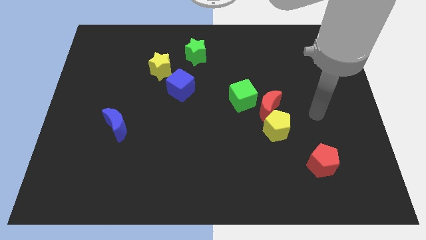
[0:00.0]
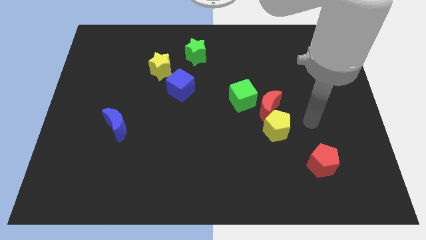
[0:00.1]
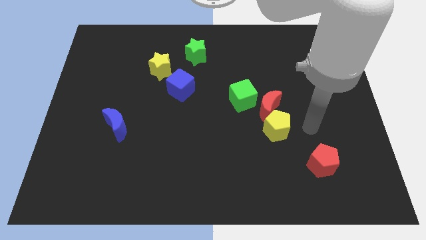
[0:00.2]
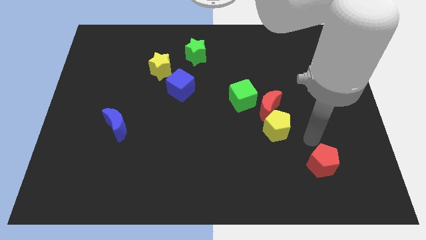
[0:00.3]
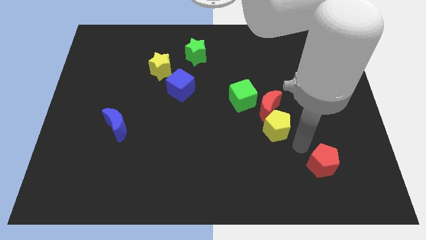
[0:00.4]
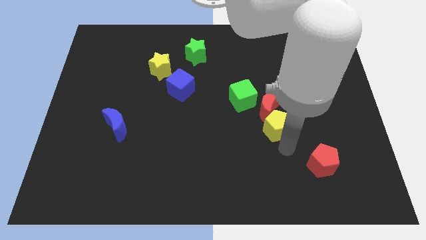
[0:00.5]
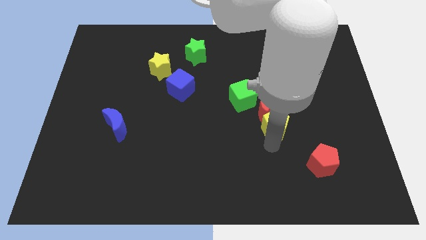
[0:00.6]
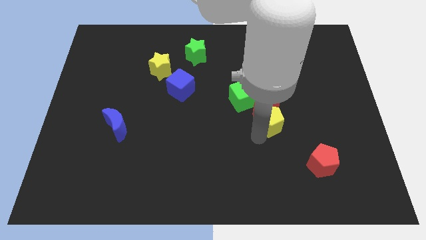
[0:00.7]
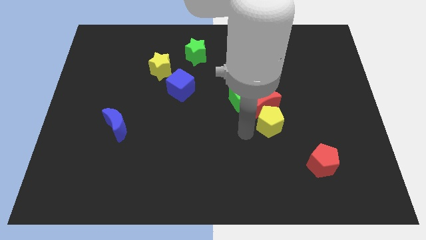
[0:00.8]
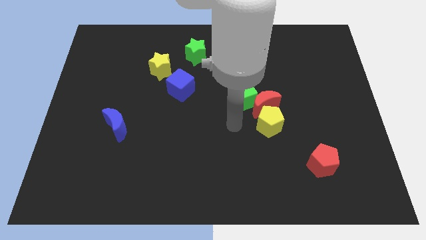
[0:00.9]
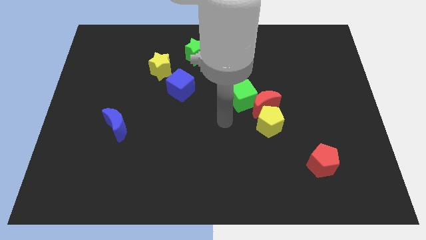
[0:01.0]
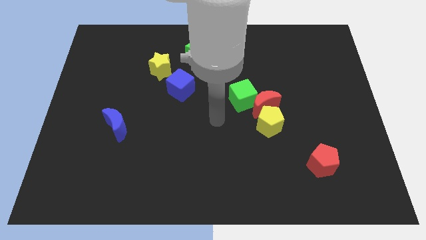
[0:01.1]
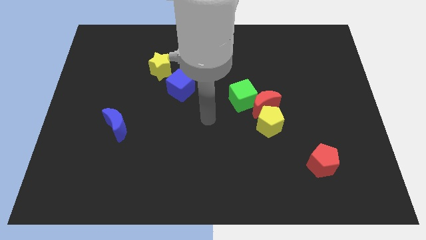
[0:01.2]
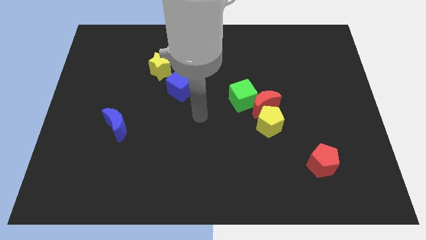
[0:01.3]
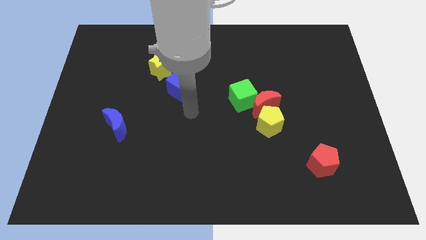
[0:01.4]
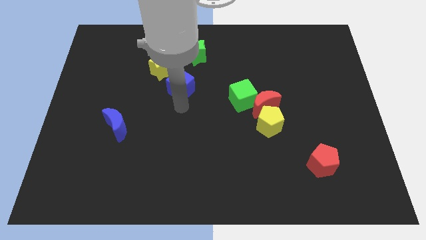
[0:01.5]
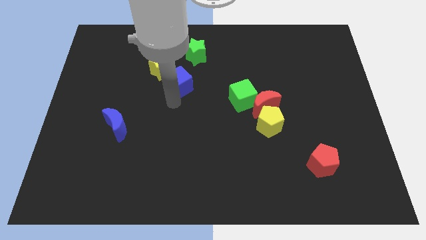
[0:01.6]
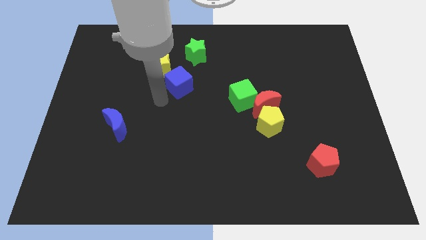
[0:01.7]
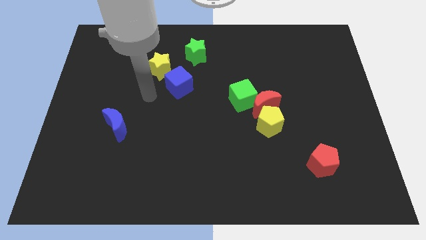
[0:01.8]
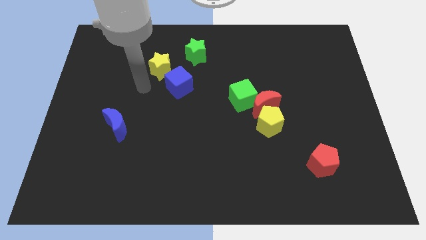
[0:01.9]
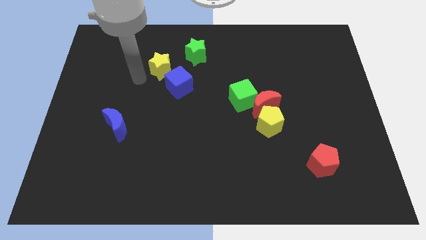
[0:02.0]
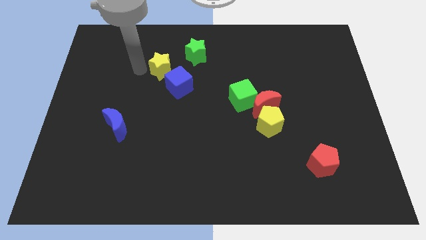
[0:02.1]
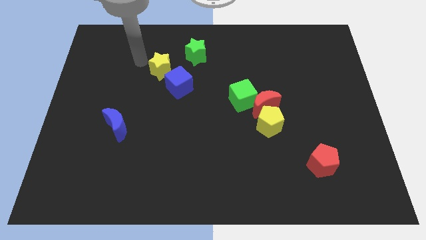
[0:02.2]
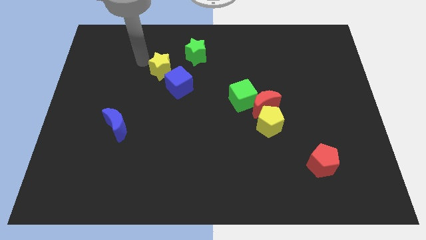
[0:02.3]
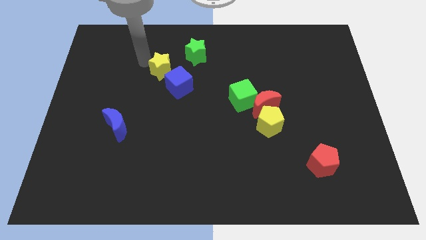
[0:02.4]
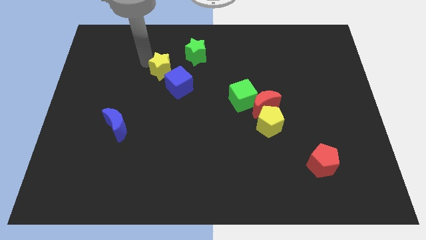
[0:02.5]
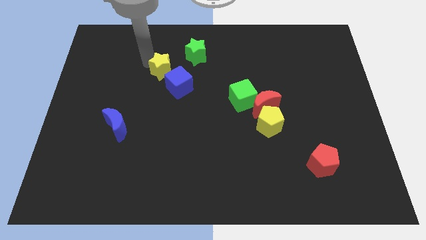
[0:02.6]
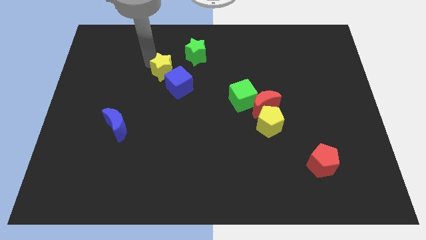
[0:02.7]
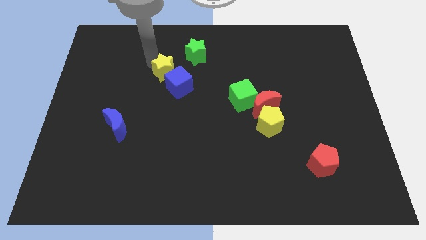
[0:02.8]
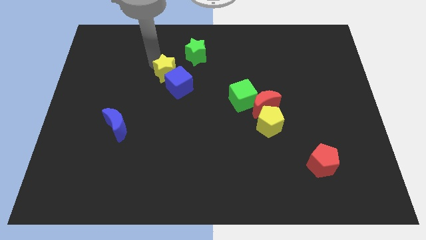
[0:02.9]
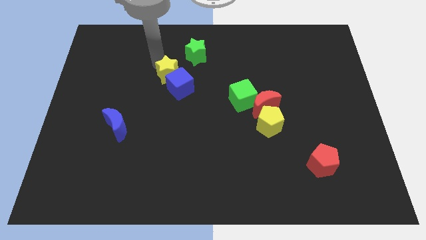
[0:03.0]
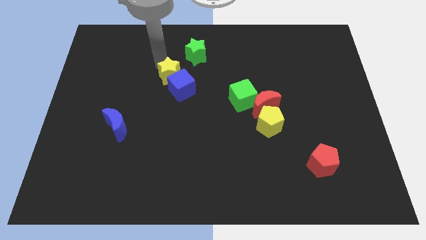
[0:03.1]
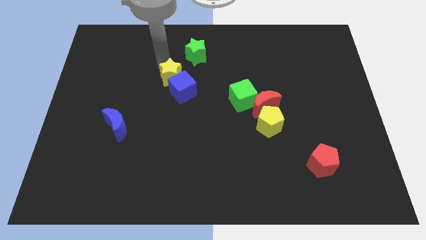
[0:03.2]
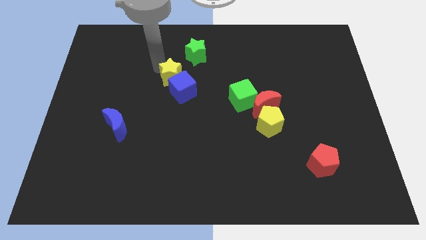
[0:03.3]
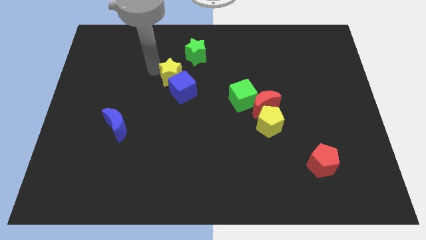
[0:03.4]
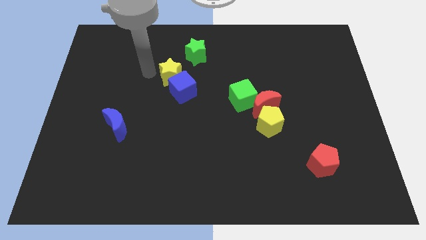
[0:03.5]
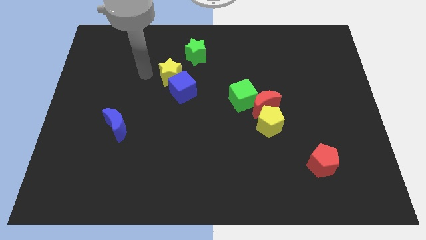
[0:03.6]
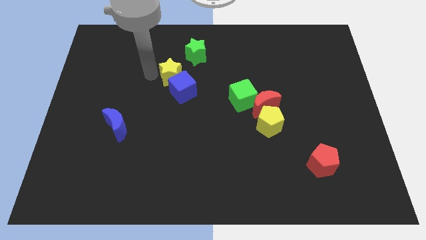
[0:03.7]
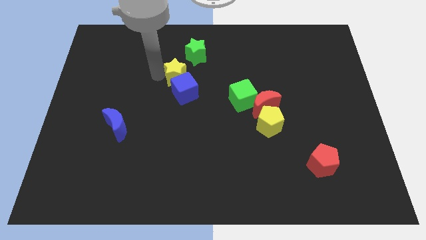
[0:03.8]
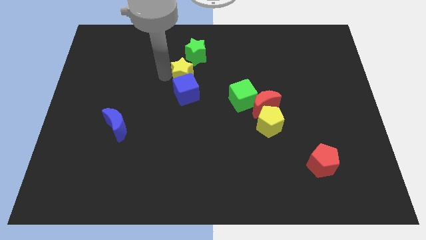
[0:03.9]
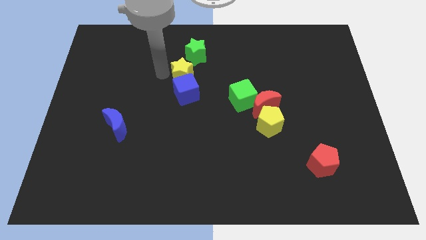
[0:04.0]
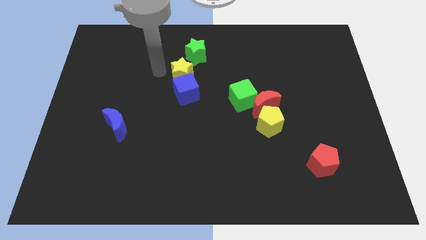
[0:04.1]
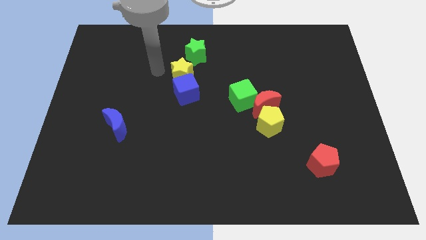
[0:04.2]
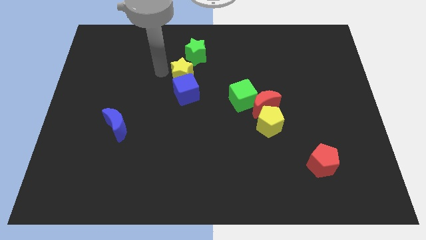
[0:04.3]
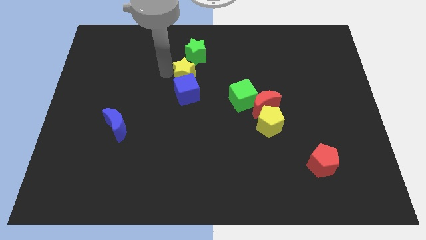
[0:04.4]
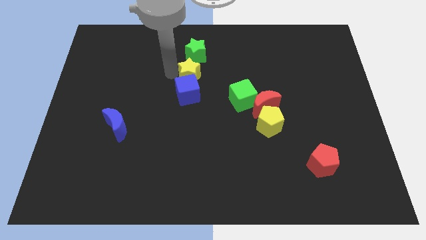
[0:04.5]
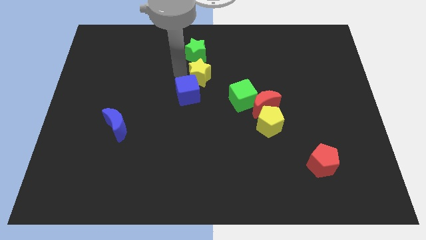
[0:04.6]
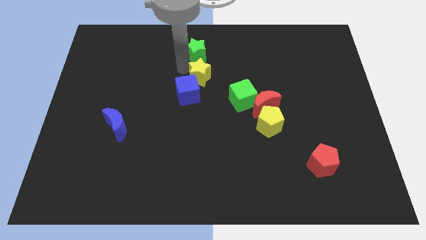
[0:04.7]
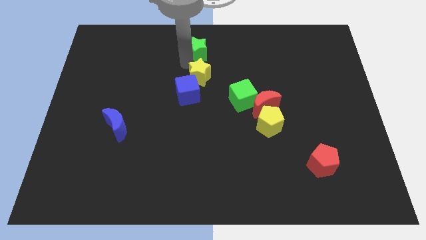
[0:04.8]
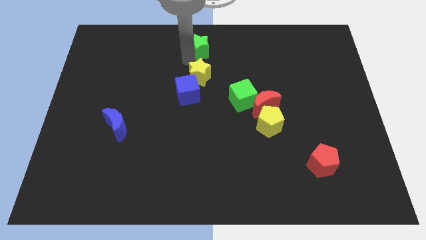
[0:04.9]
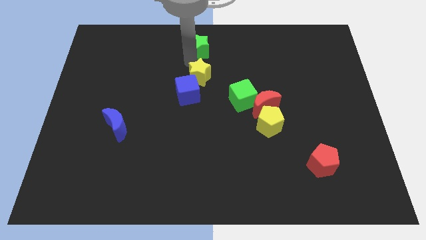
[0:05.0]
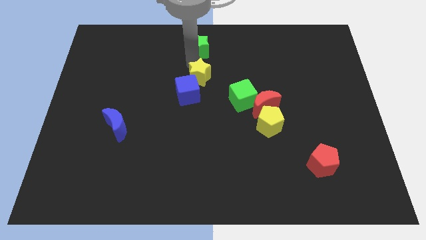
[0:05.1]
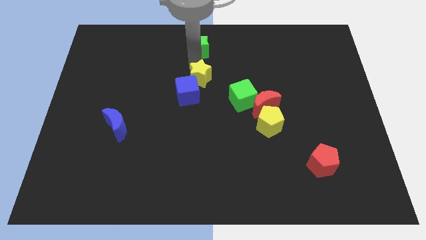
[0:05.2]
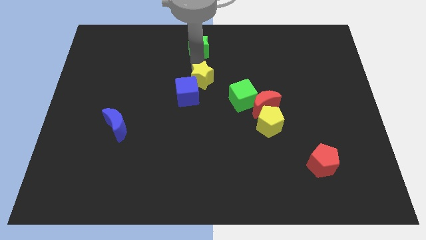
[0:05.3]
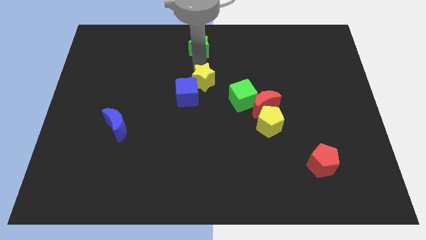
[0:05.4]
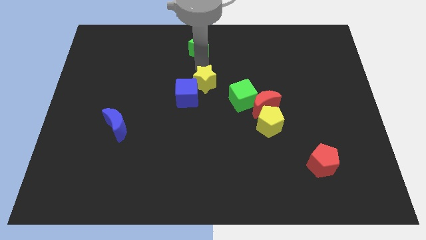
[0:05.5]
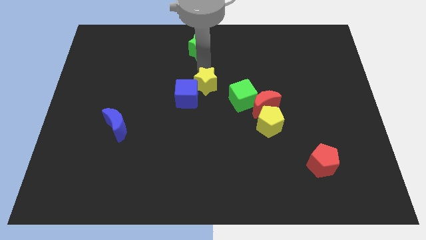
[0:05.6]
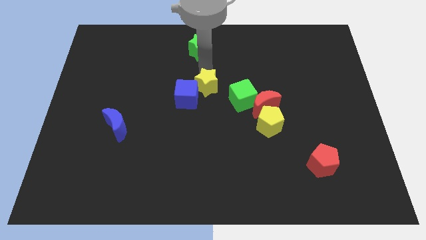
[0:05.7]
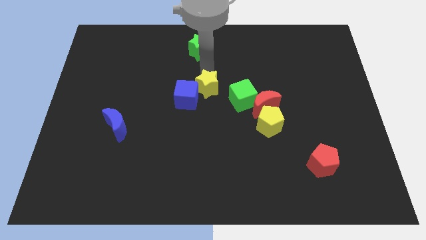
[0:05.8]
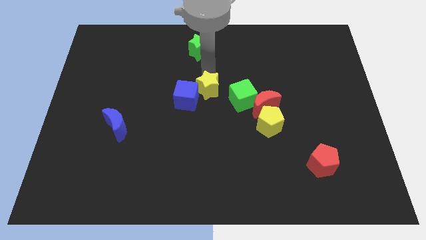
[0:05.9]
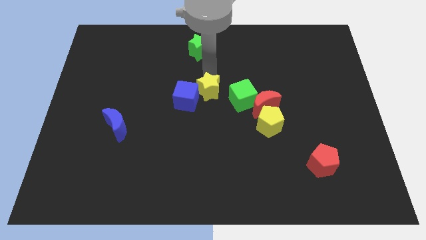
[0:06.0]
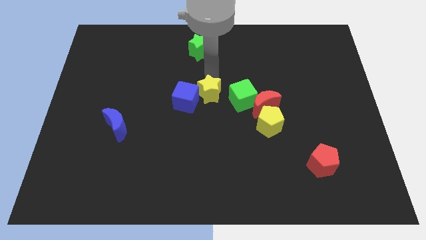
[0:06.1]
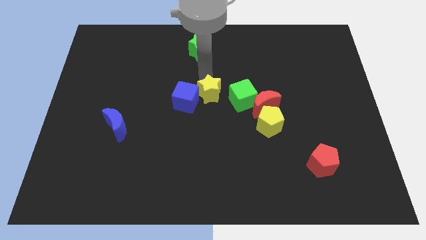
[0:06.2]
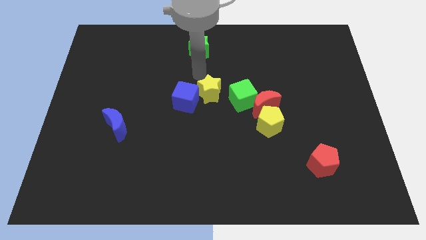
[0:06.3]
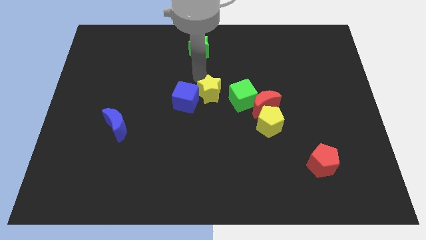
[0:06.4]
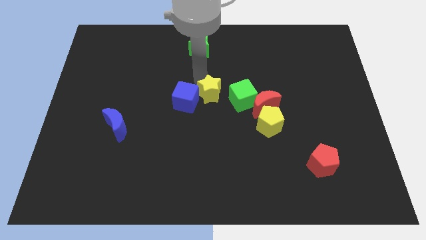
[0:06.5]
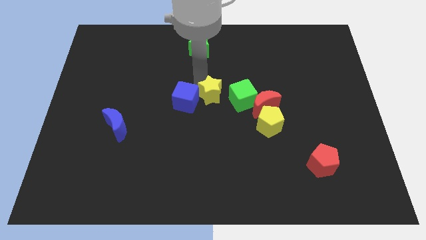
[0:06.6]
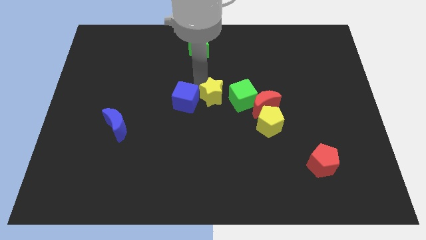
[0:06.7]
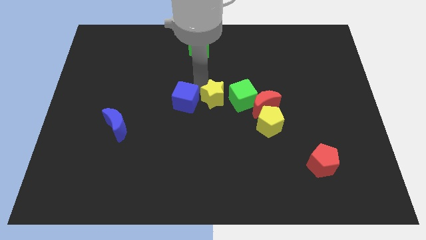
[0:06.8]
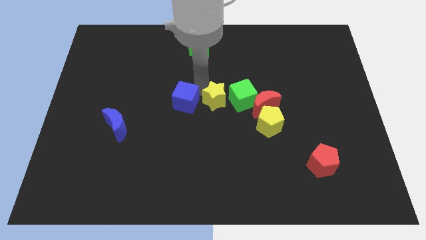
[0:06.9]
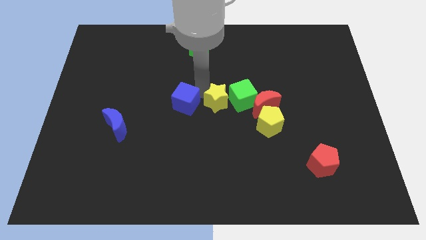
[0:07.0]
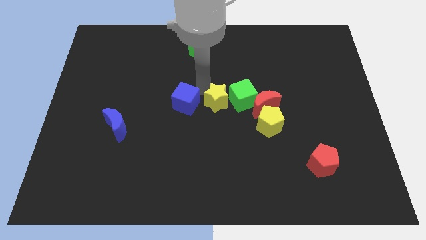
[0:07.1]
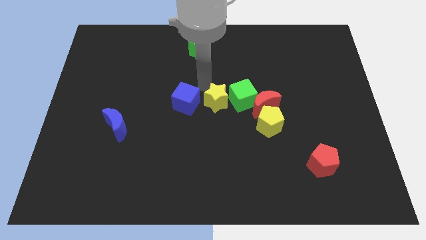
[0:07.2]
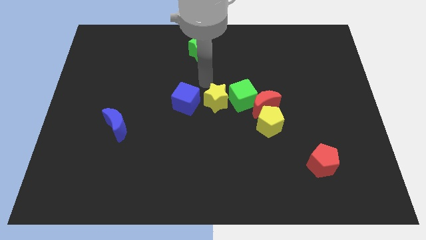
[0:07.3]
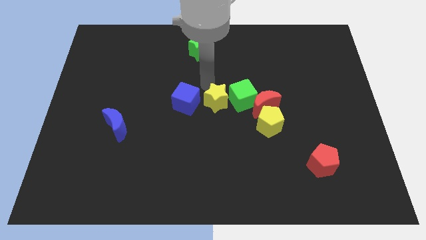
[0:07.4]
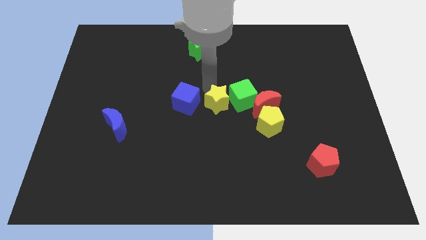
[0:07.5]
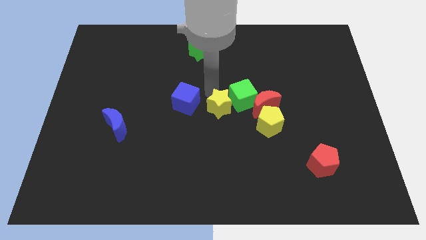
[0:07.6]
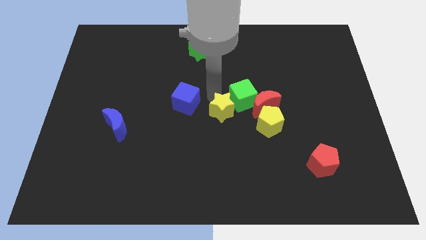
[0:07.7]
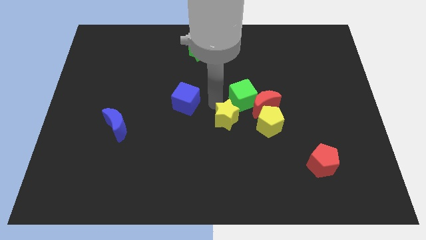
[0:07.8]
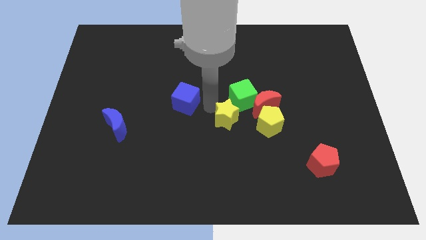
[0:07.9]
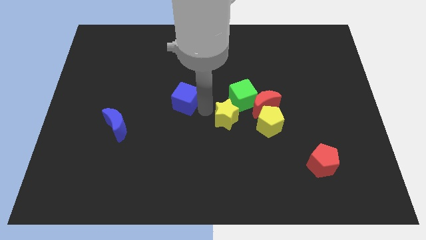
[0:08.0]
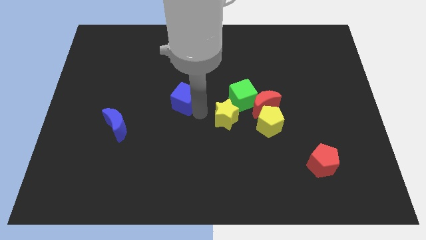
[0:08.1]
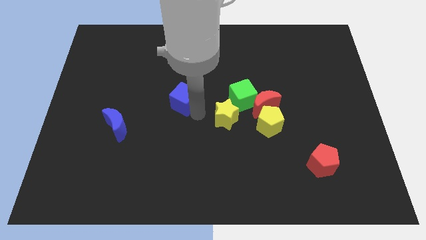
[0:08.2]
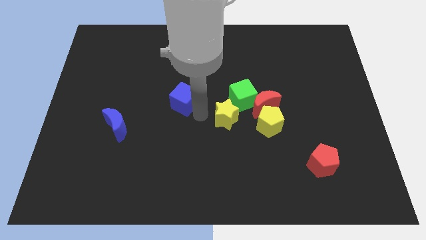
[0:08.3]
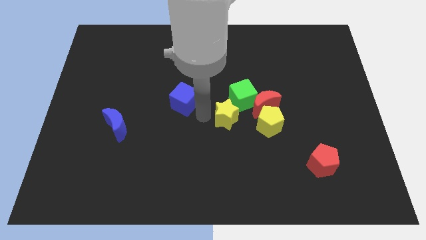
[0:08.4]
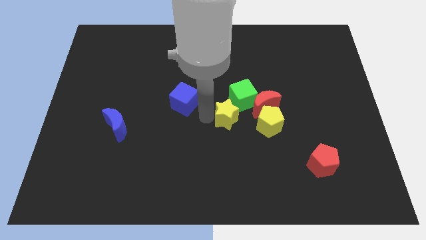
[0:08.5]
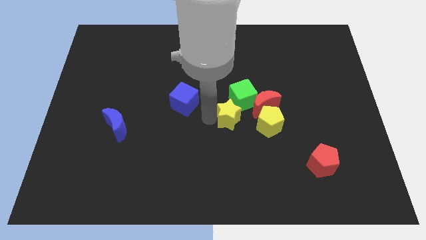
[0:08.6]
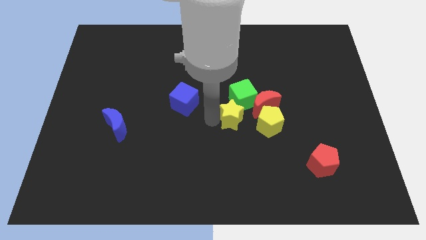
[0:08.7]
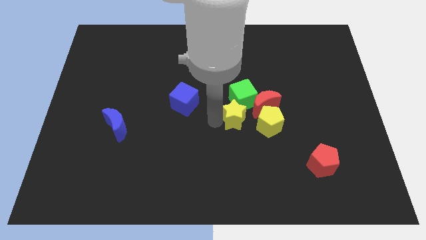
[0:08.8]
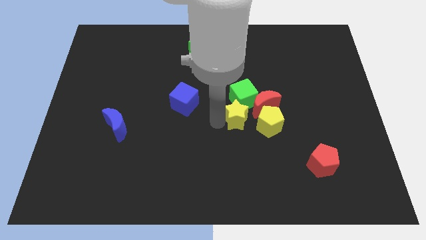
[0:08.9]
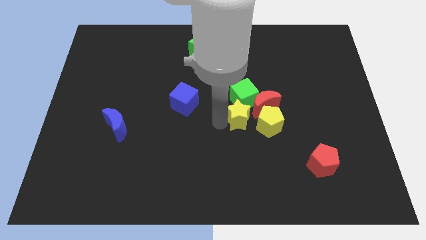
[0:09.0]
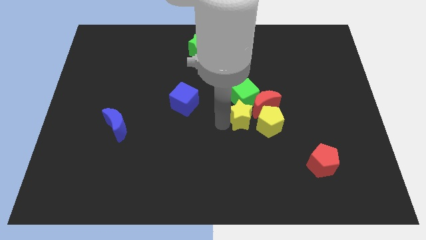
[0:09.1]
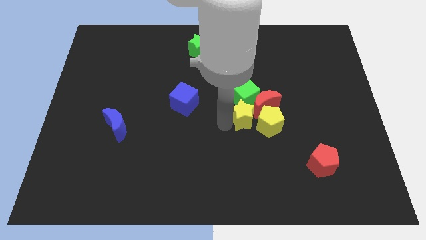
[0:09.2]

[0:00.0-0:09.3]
put the yellow star towards the yellow pentagon
